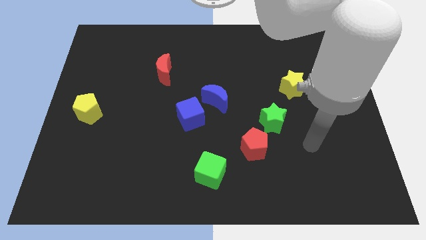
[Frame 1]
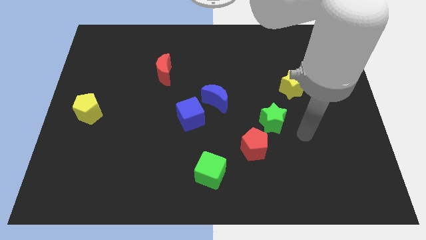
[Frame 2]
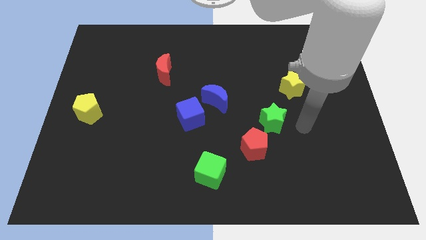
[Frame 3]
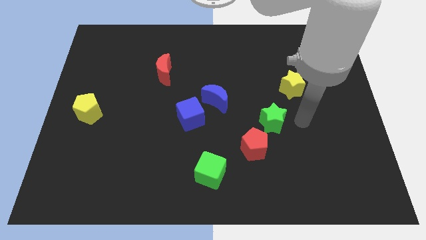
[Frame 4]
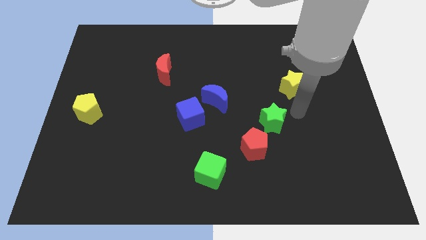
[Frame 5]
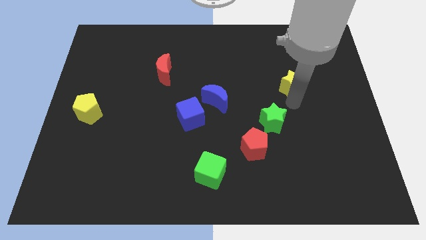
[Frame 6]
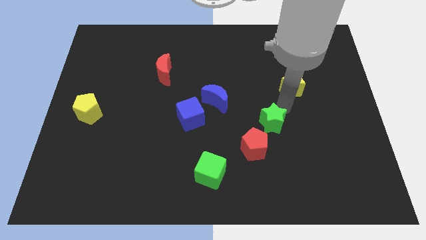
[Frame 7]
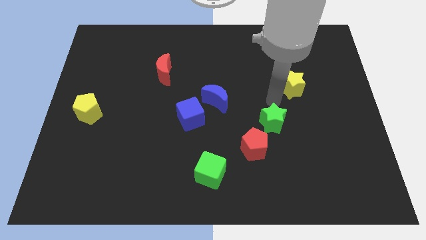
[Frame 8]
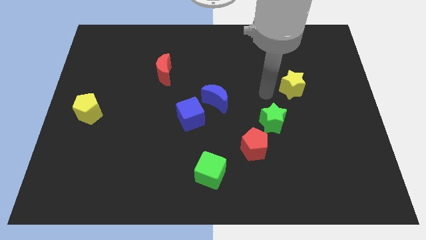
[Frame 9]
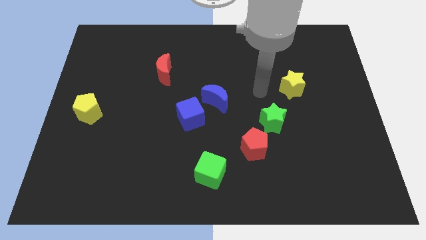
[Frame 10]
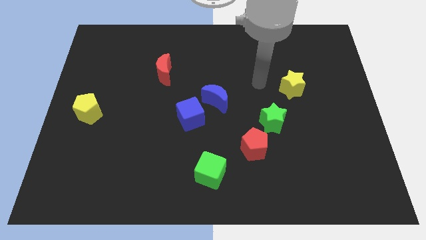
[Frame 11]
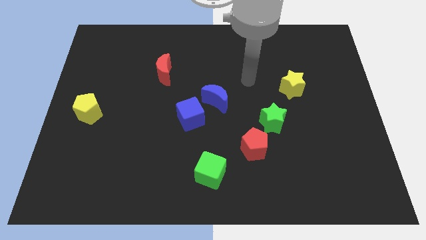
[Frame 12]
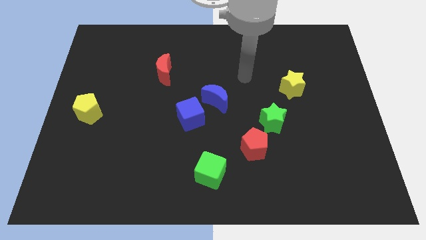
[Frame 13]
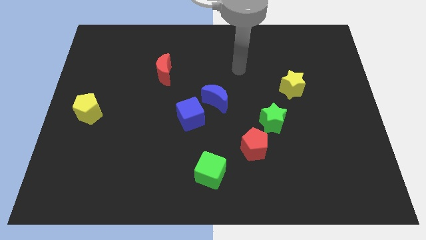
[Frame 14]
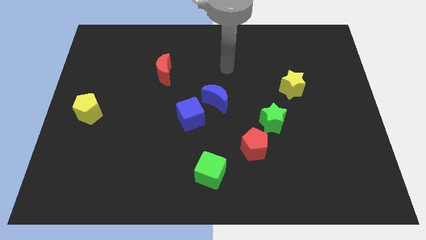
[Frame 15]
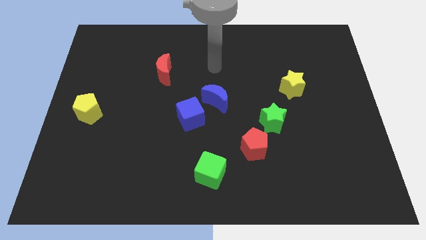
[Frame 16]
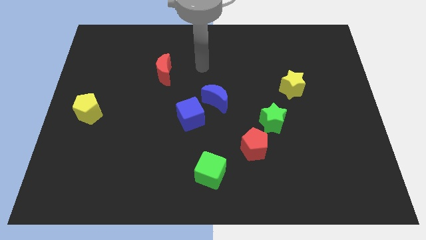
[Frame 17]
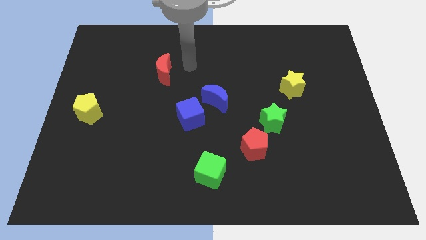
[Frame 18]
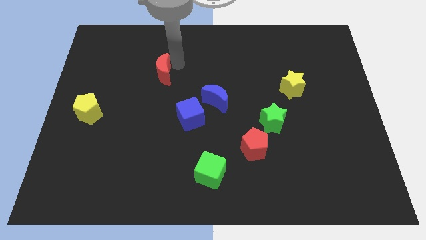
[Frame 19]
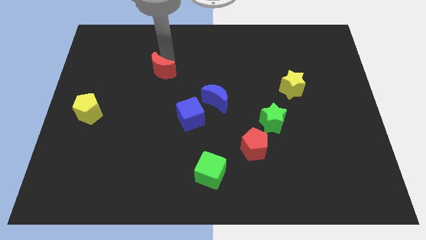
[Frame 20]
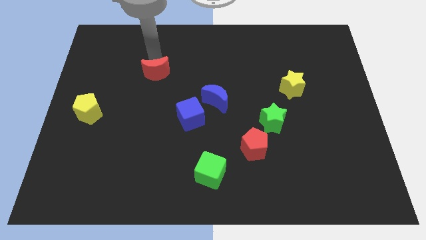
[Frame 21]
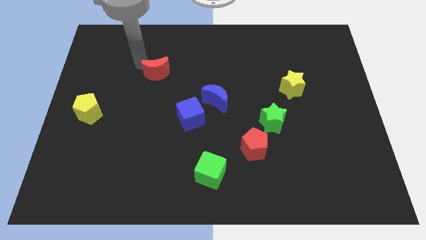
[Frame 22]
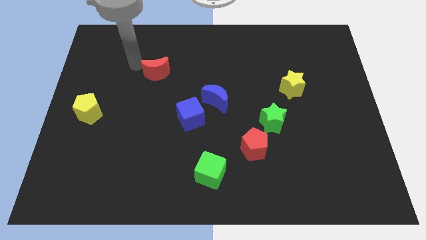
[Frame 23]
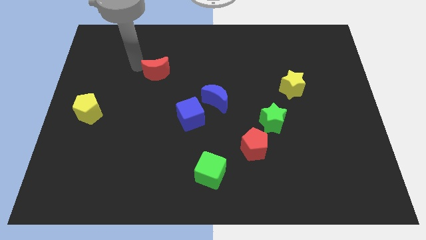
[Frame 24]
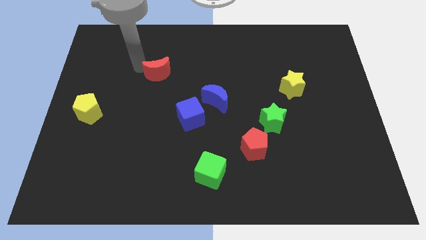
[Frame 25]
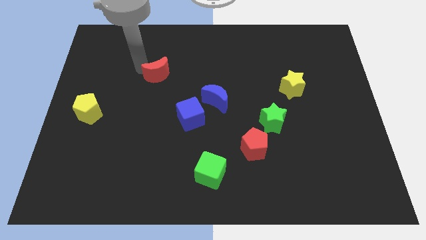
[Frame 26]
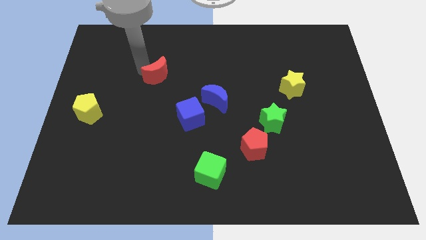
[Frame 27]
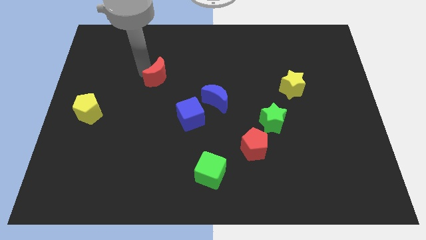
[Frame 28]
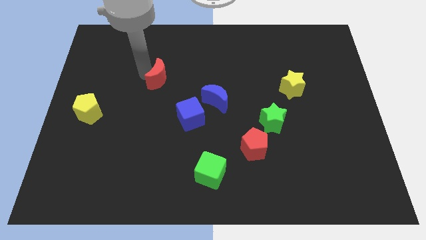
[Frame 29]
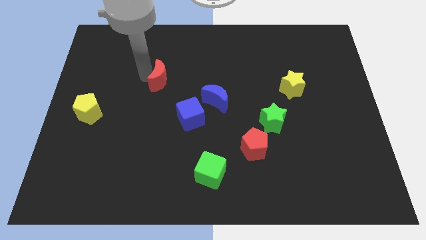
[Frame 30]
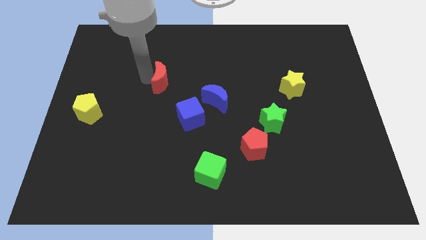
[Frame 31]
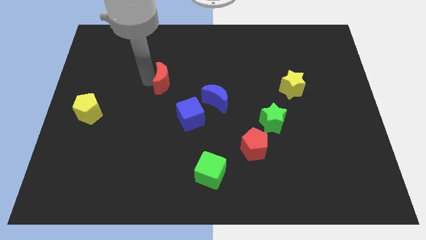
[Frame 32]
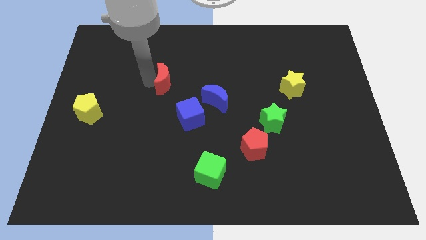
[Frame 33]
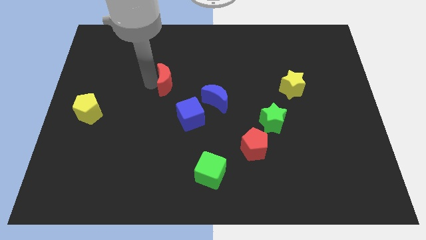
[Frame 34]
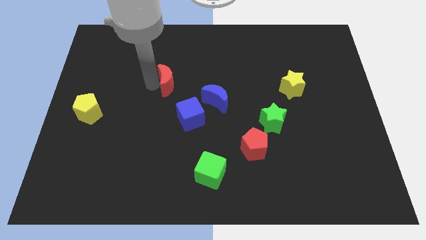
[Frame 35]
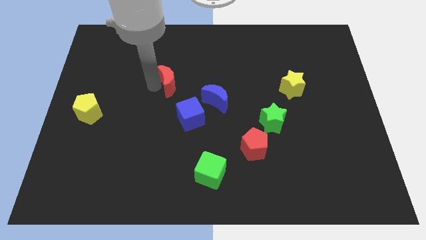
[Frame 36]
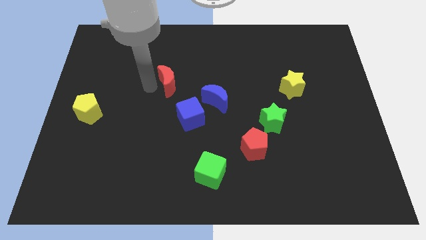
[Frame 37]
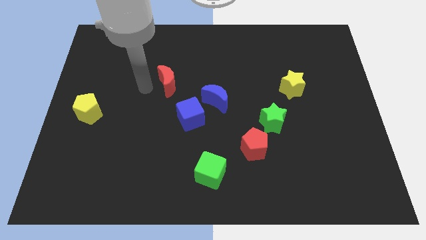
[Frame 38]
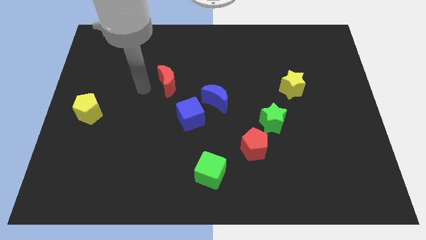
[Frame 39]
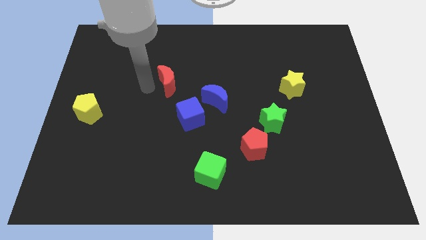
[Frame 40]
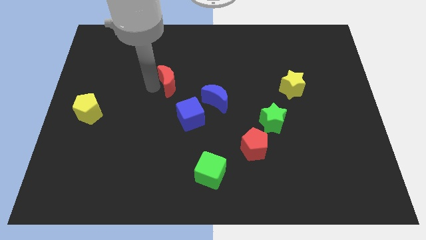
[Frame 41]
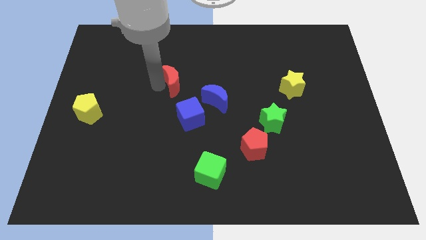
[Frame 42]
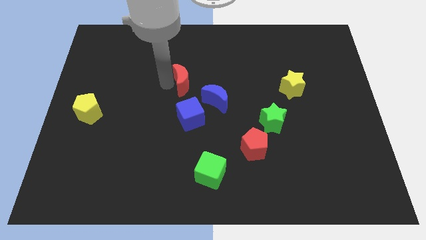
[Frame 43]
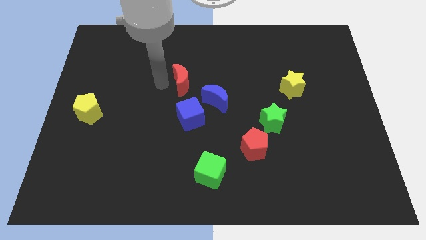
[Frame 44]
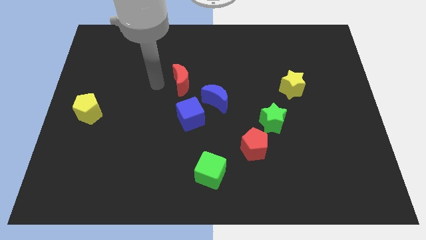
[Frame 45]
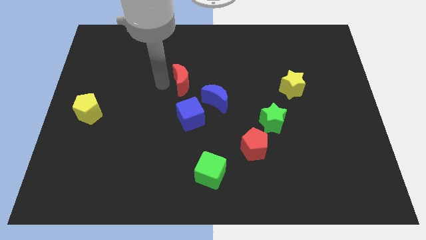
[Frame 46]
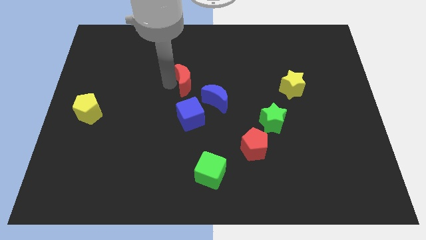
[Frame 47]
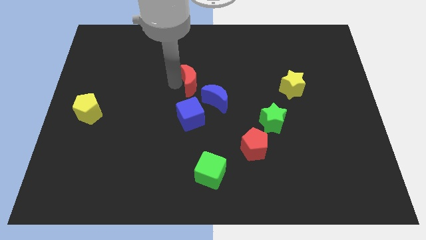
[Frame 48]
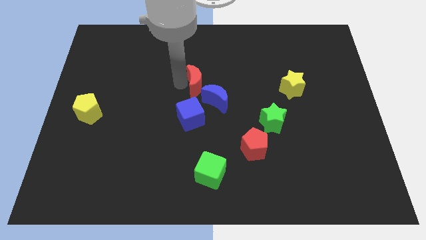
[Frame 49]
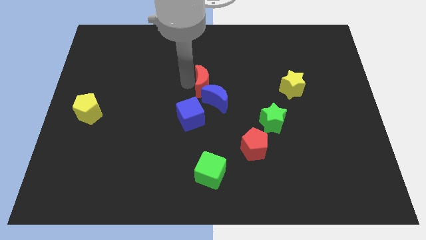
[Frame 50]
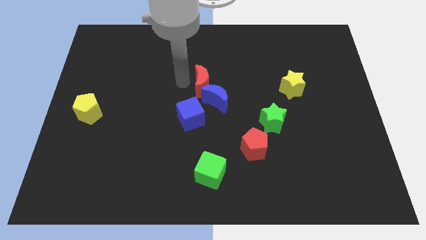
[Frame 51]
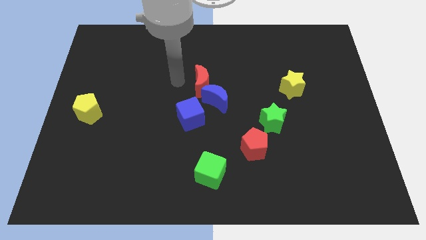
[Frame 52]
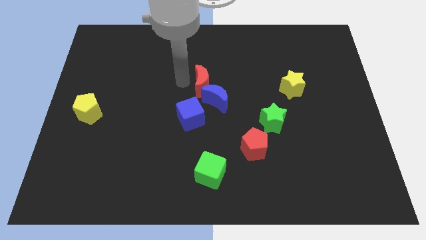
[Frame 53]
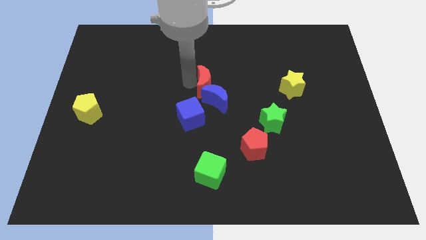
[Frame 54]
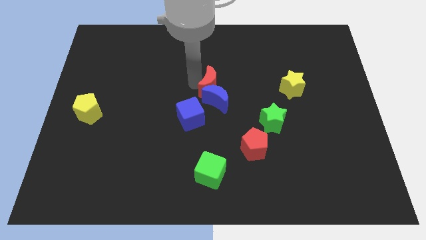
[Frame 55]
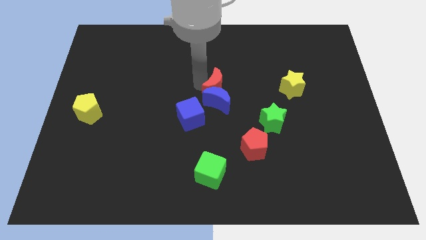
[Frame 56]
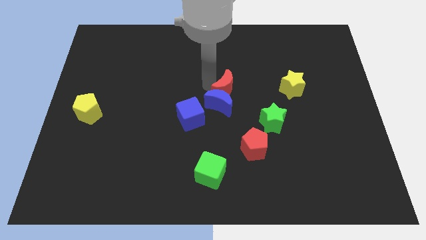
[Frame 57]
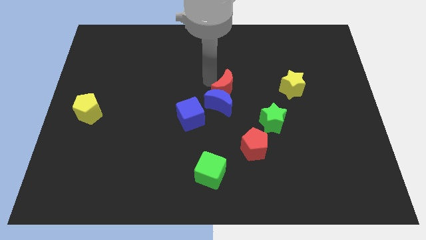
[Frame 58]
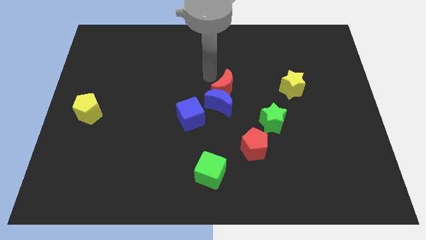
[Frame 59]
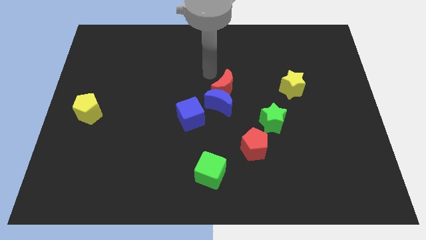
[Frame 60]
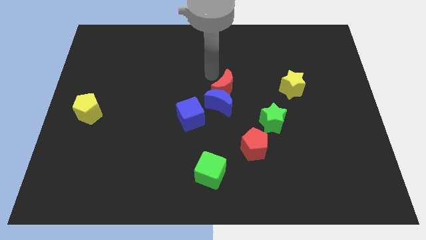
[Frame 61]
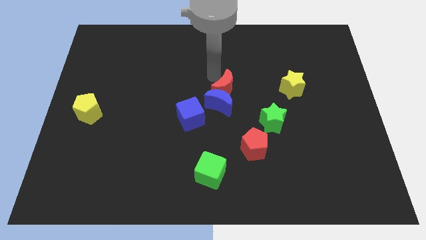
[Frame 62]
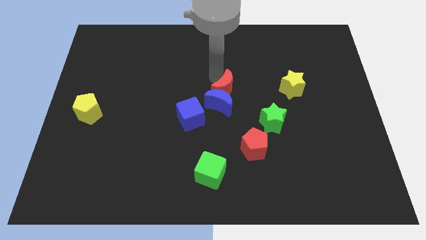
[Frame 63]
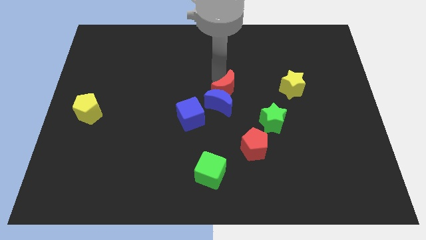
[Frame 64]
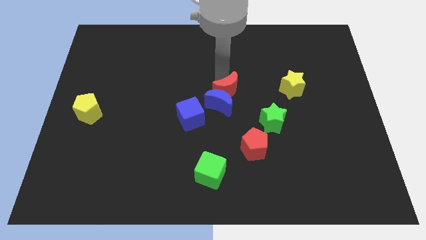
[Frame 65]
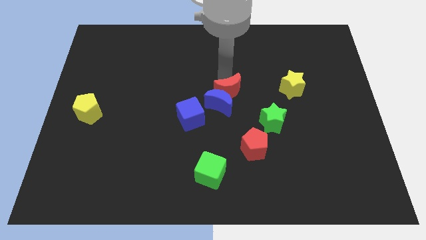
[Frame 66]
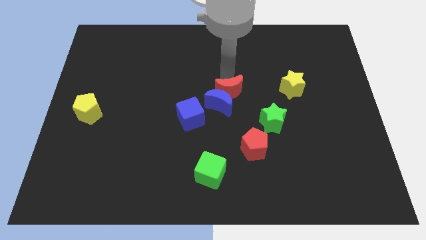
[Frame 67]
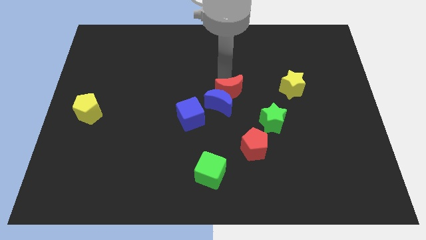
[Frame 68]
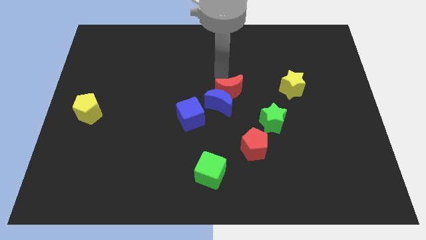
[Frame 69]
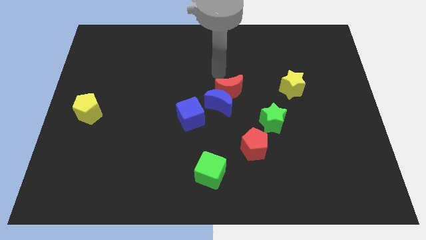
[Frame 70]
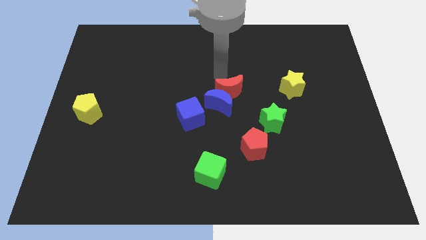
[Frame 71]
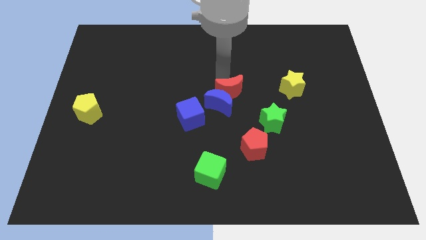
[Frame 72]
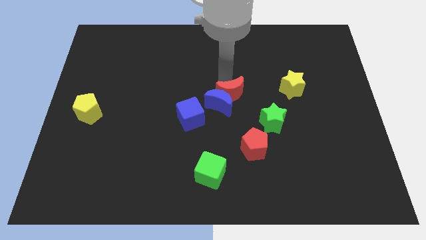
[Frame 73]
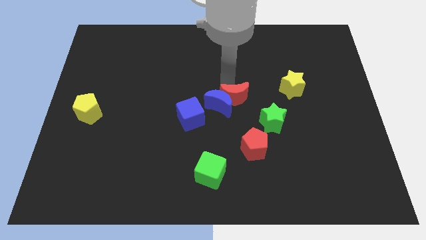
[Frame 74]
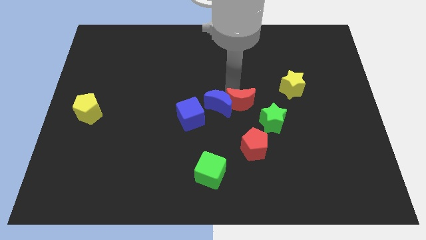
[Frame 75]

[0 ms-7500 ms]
move the red moon just right of the blue cube
